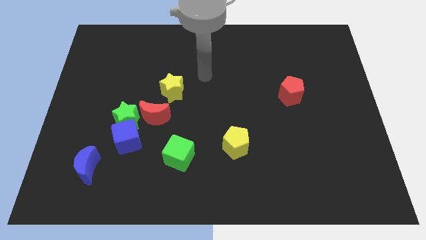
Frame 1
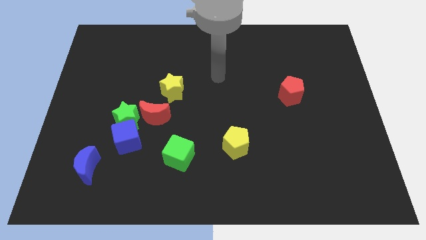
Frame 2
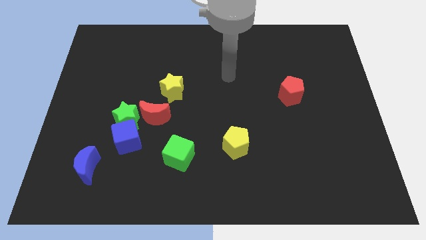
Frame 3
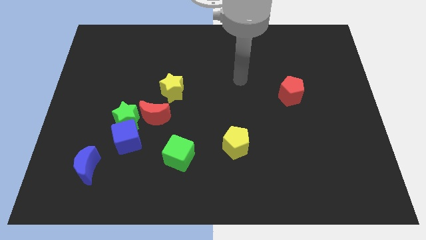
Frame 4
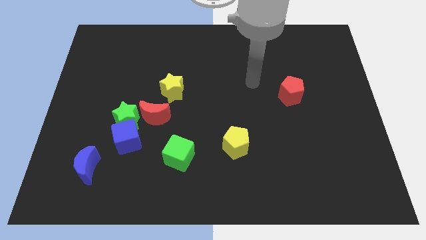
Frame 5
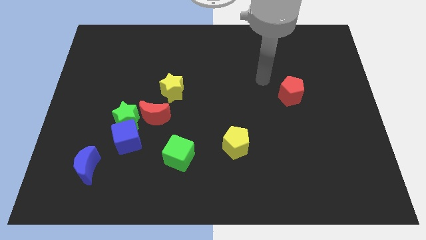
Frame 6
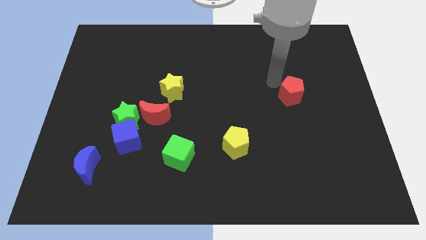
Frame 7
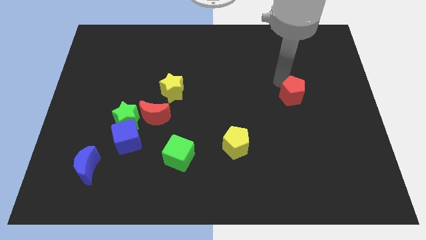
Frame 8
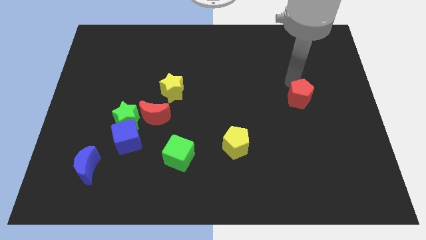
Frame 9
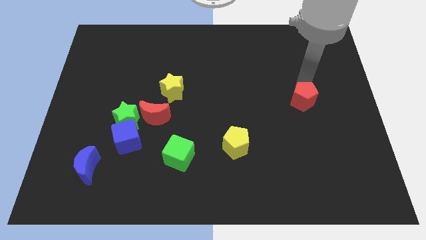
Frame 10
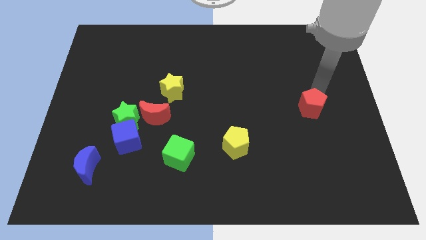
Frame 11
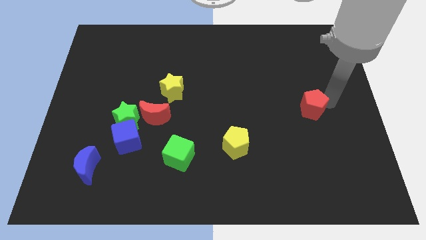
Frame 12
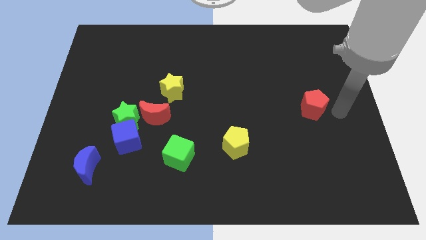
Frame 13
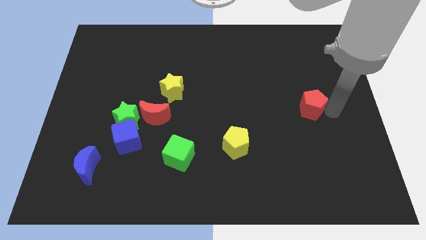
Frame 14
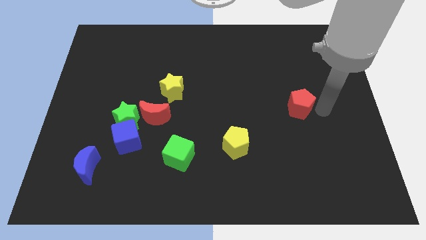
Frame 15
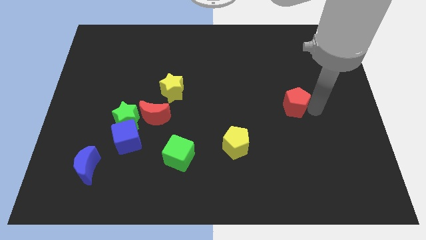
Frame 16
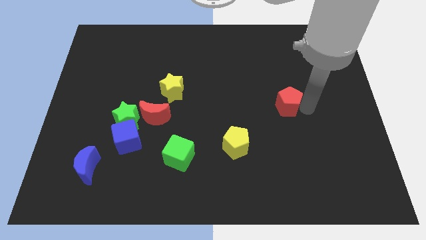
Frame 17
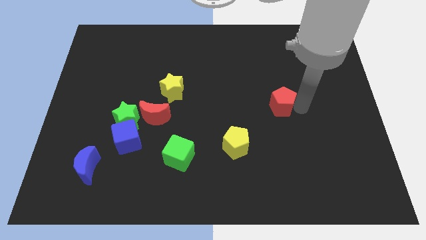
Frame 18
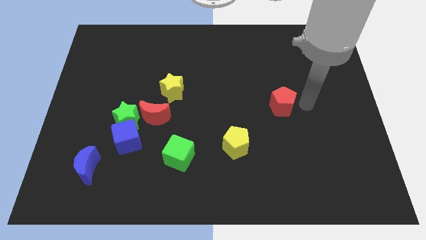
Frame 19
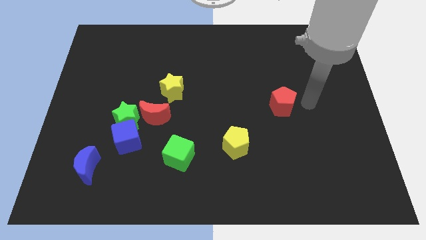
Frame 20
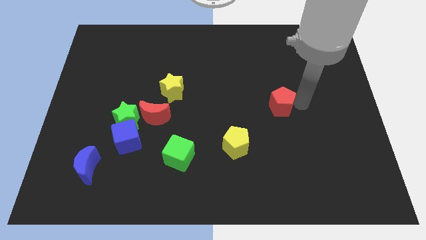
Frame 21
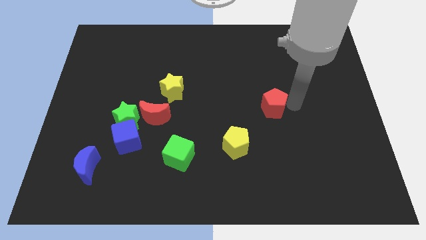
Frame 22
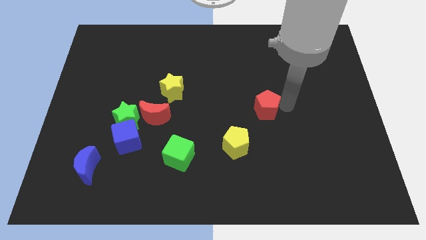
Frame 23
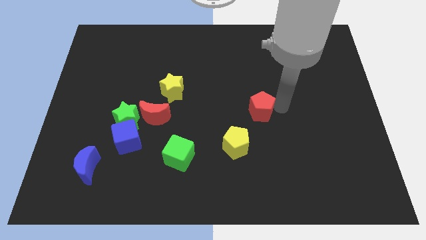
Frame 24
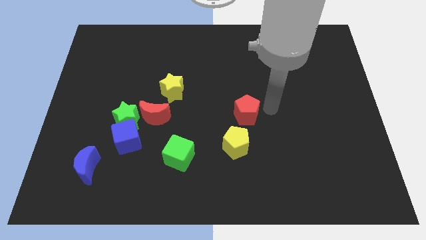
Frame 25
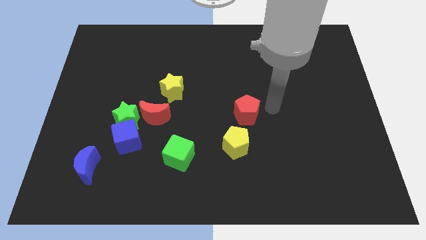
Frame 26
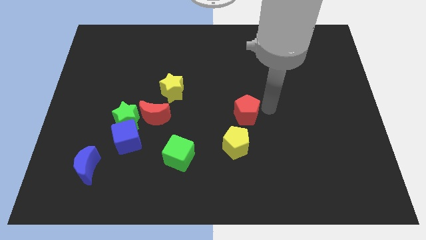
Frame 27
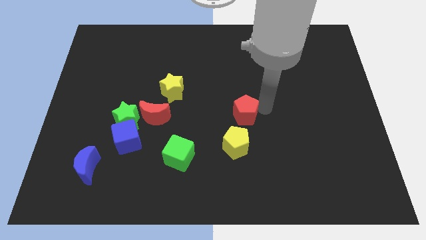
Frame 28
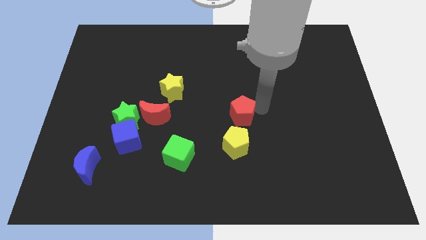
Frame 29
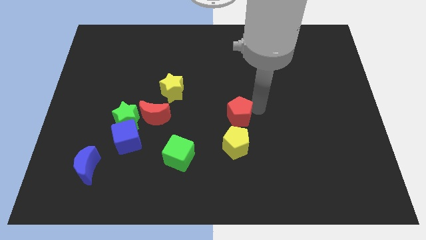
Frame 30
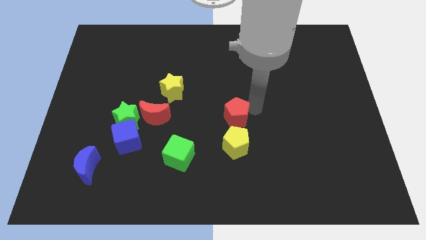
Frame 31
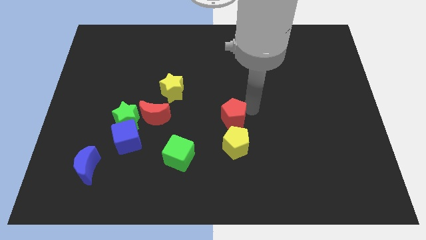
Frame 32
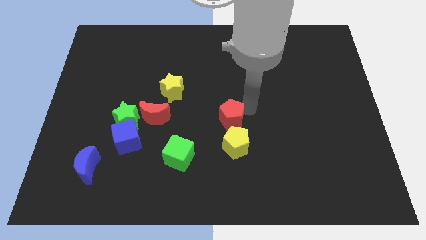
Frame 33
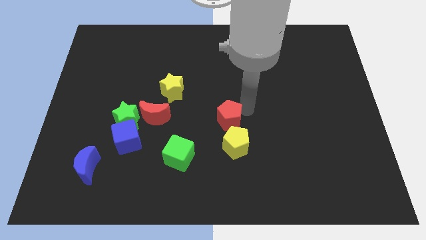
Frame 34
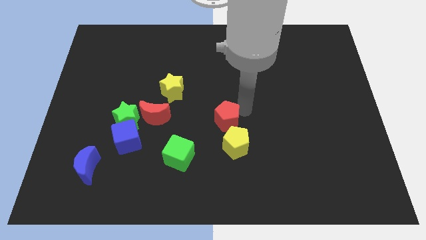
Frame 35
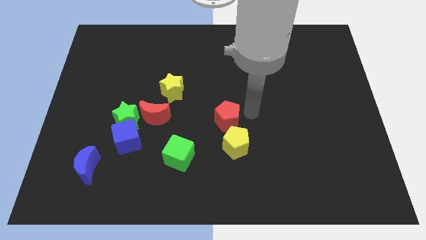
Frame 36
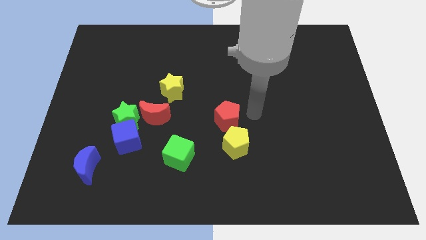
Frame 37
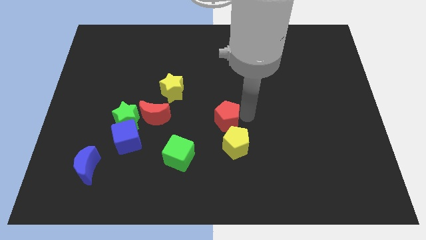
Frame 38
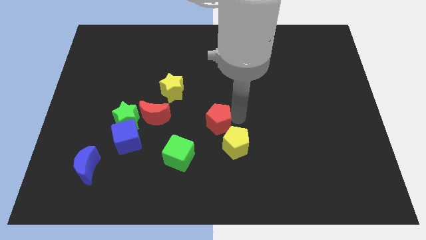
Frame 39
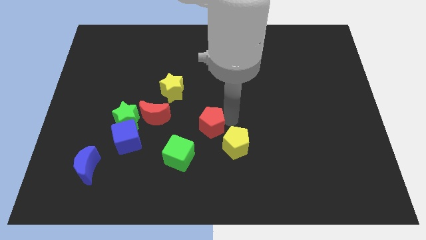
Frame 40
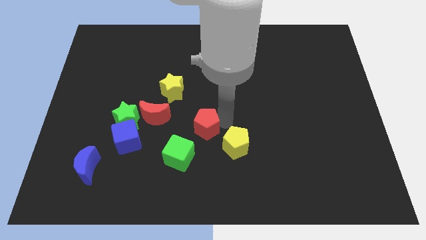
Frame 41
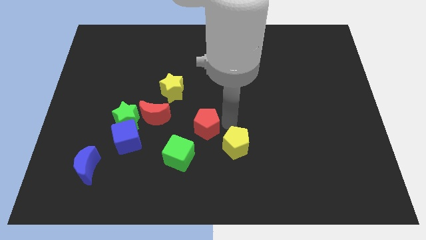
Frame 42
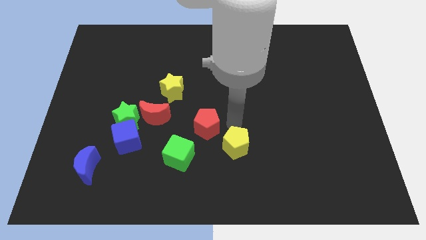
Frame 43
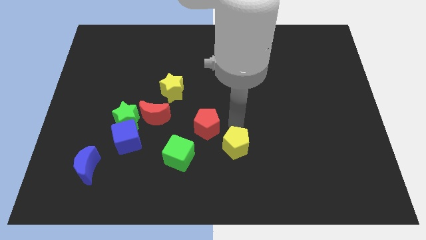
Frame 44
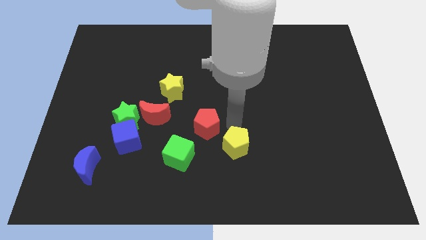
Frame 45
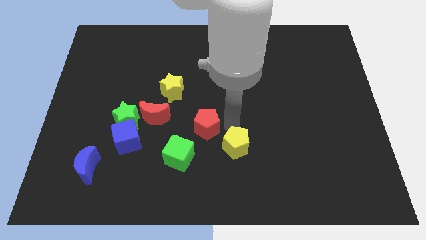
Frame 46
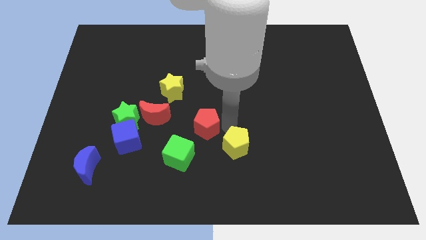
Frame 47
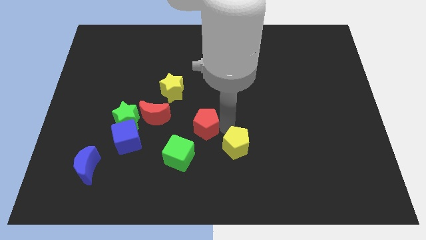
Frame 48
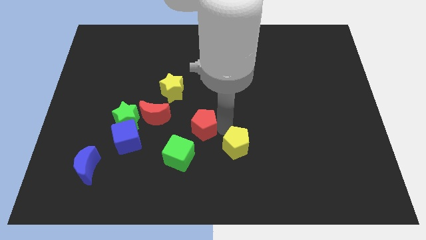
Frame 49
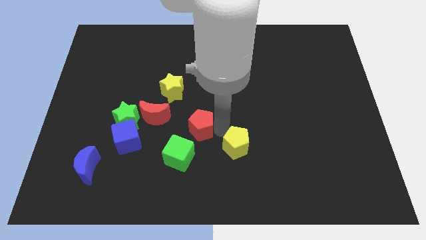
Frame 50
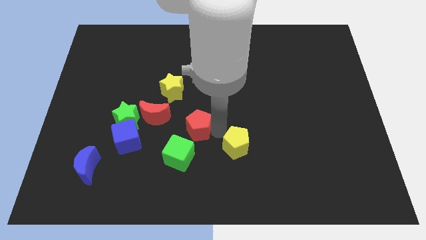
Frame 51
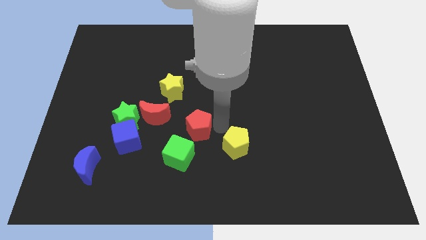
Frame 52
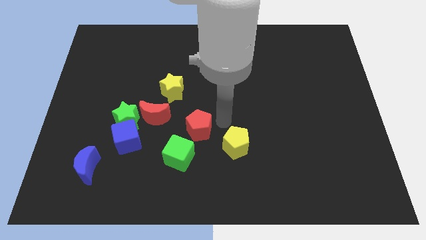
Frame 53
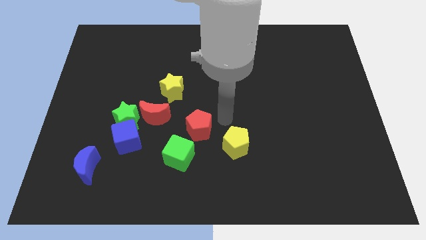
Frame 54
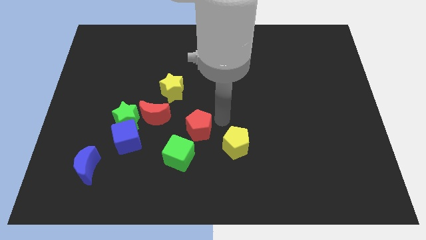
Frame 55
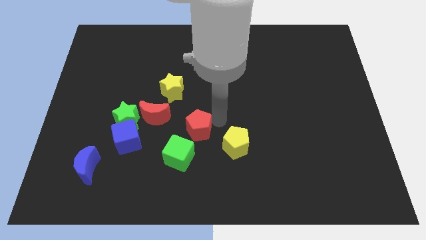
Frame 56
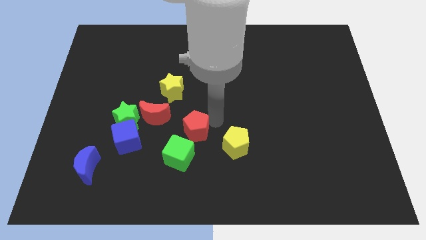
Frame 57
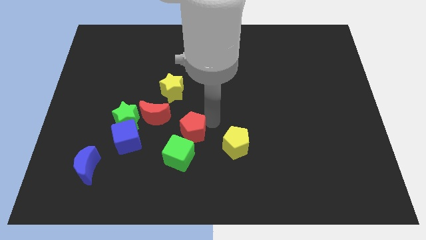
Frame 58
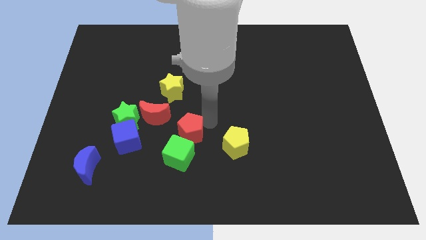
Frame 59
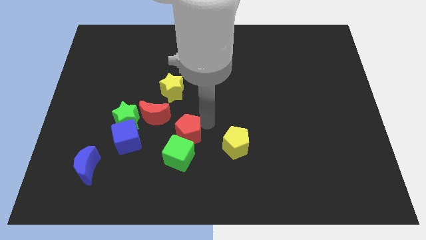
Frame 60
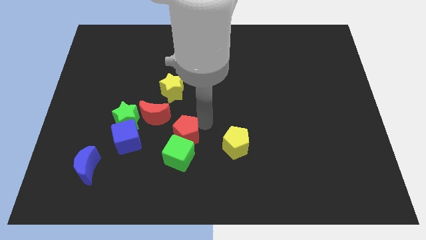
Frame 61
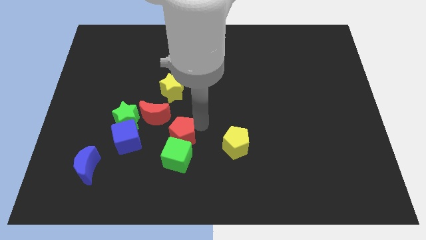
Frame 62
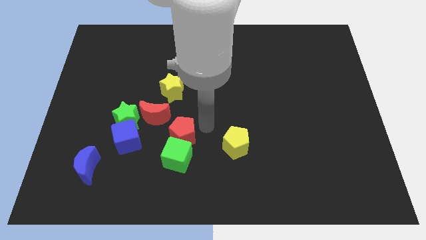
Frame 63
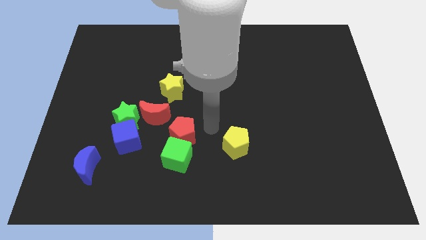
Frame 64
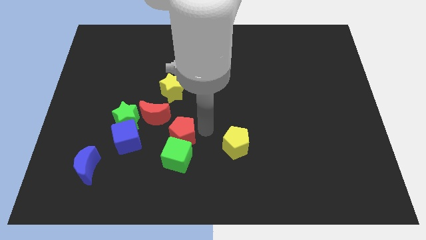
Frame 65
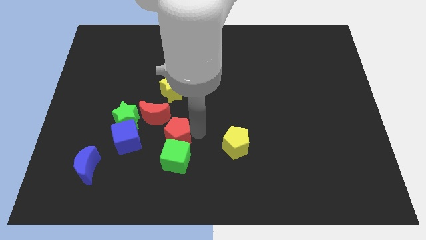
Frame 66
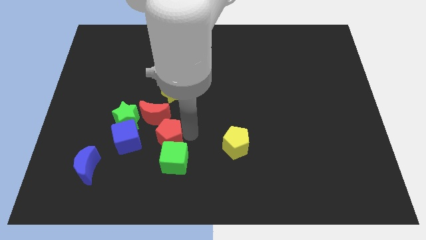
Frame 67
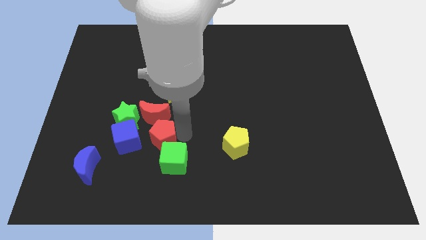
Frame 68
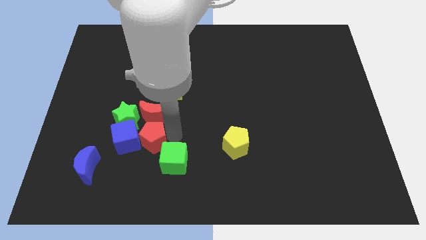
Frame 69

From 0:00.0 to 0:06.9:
push the red pentagon to the left side of the green cube

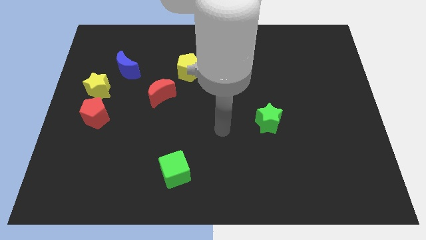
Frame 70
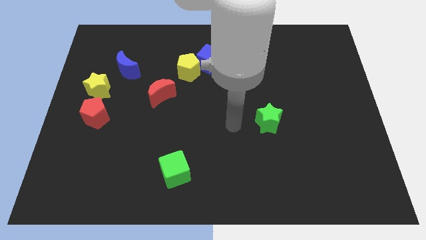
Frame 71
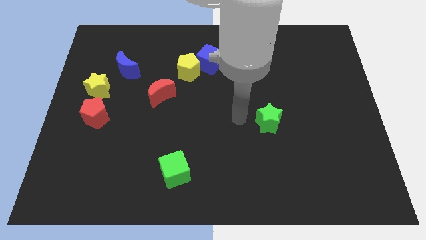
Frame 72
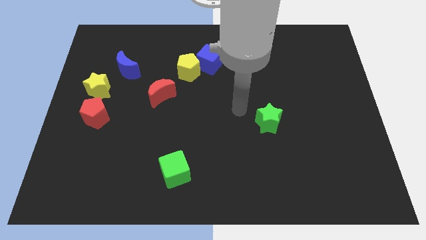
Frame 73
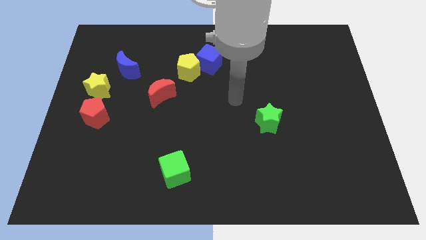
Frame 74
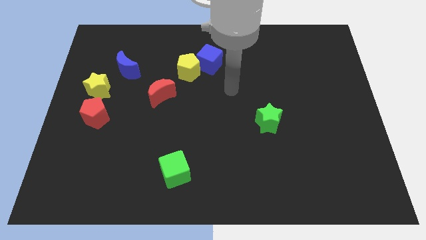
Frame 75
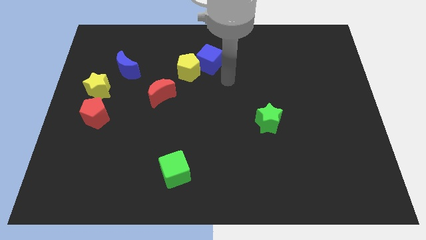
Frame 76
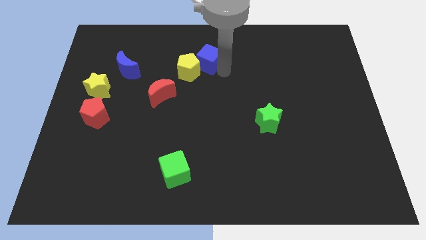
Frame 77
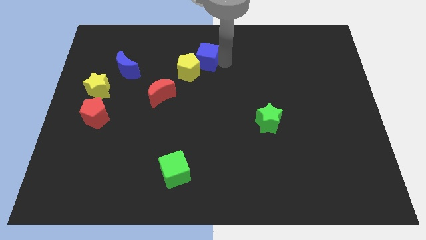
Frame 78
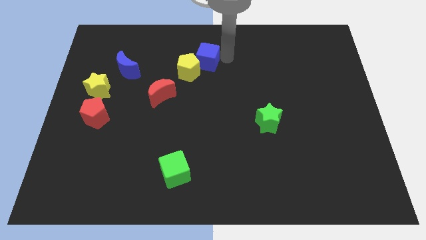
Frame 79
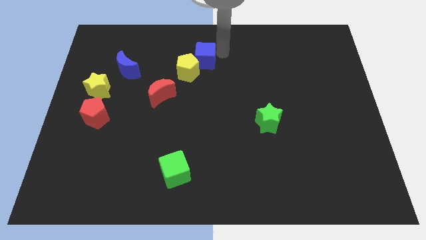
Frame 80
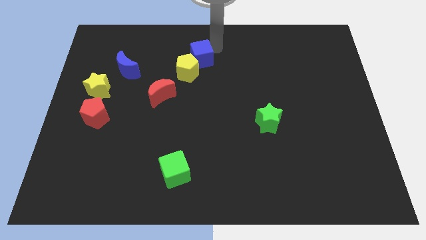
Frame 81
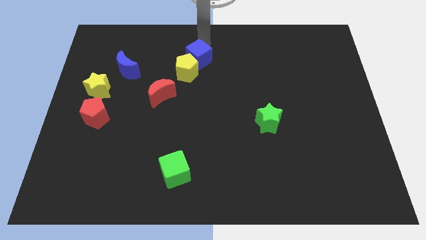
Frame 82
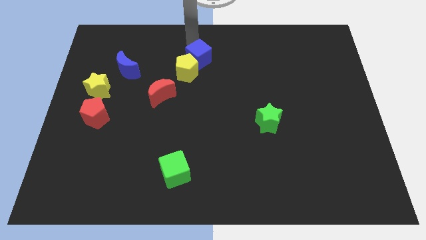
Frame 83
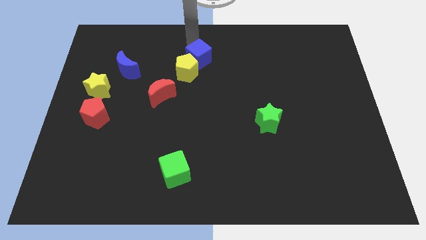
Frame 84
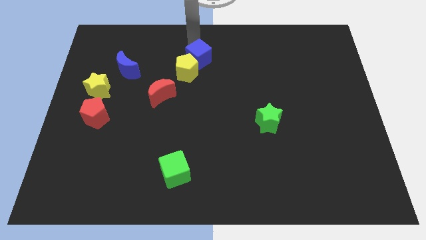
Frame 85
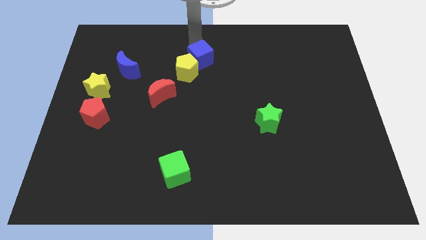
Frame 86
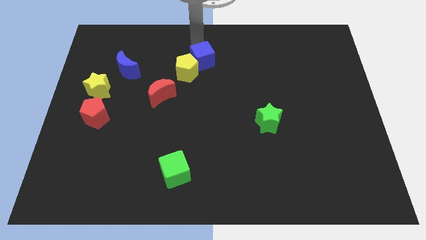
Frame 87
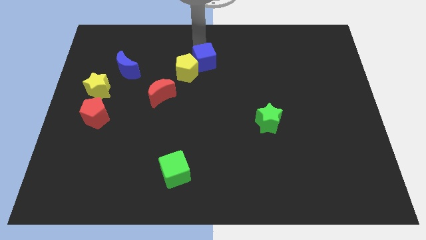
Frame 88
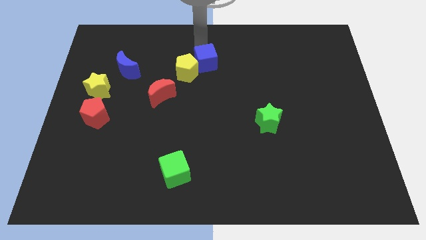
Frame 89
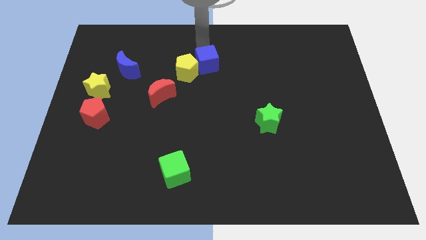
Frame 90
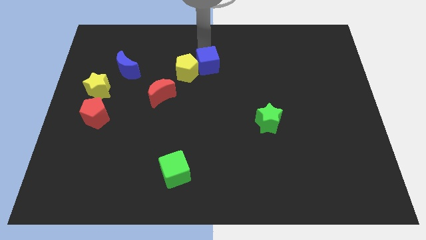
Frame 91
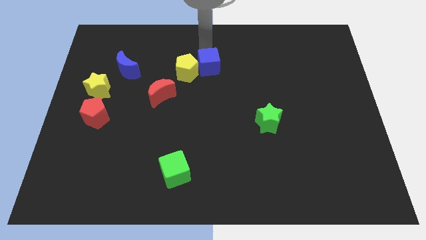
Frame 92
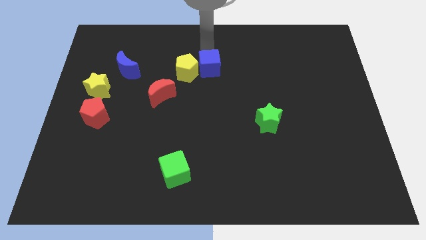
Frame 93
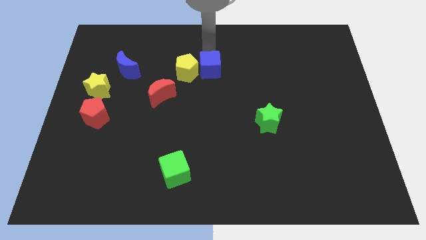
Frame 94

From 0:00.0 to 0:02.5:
move the blue cube diagonally down and to the right of the yellow pentagon
